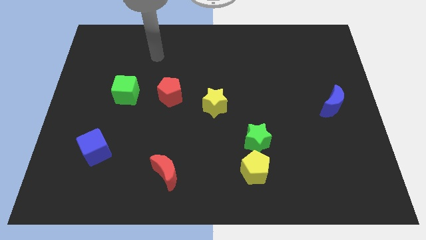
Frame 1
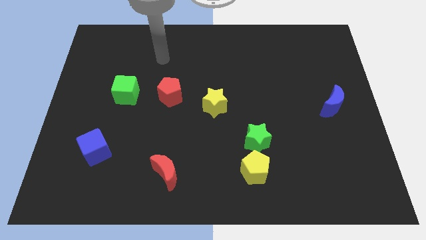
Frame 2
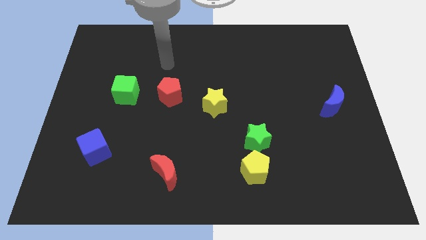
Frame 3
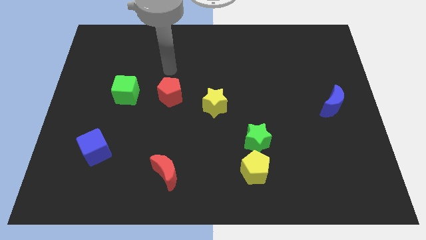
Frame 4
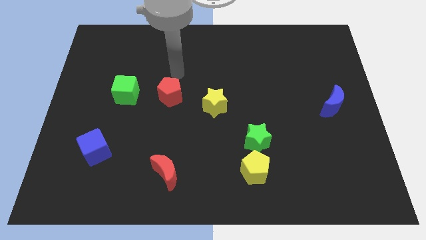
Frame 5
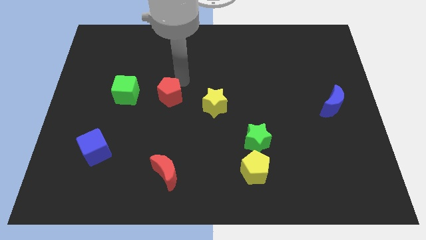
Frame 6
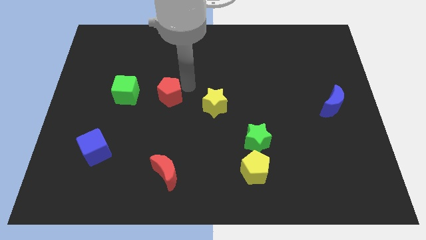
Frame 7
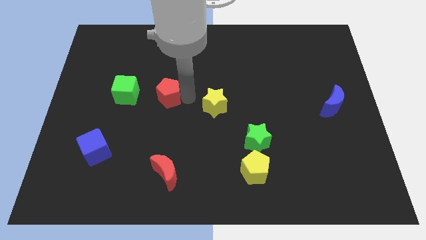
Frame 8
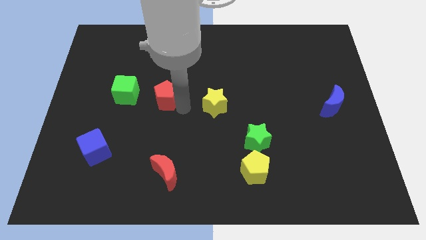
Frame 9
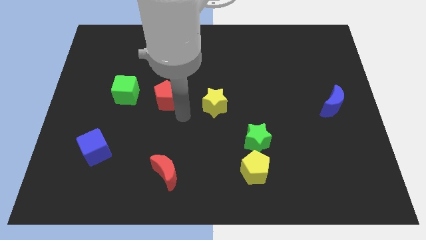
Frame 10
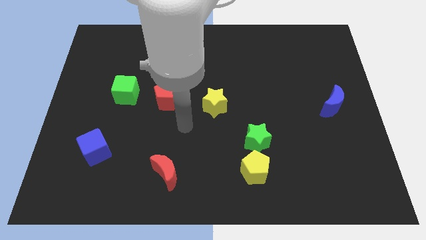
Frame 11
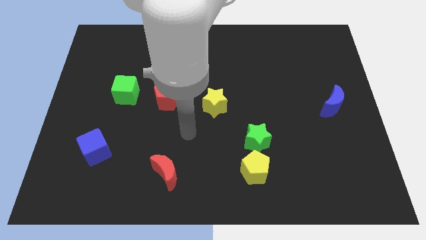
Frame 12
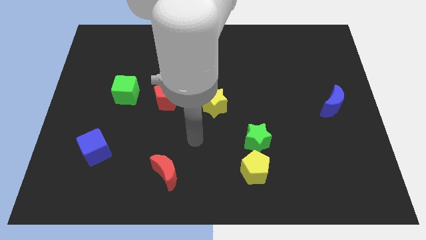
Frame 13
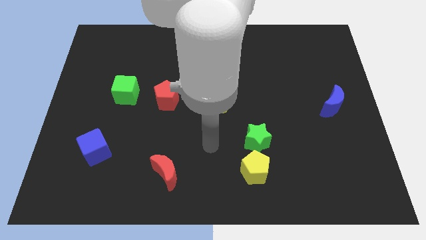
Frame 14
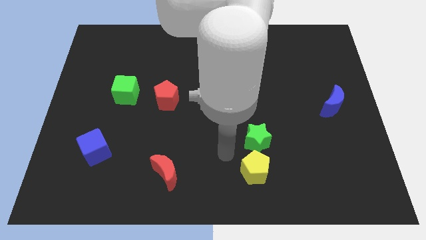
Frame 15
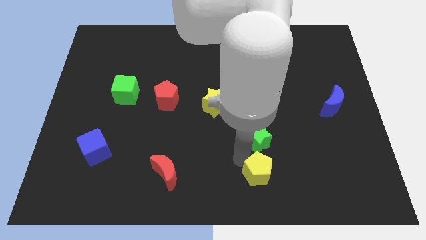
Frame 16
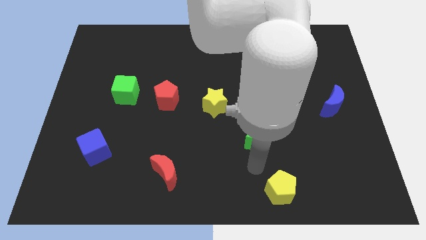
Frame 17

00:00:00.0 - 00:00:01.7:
separate the green star from the yellow pentagon

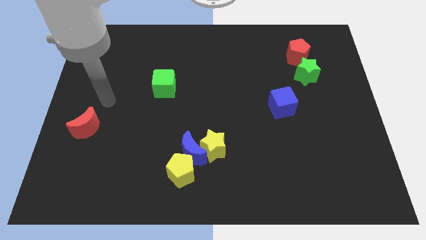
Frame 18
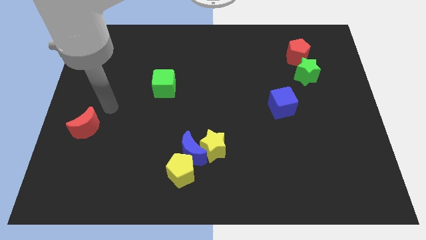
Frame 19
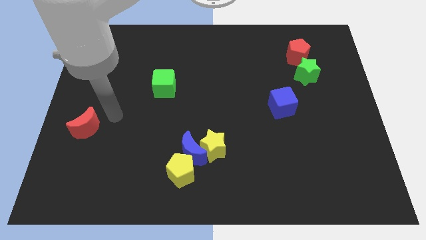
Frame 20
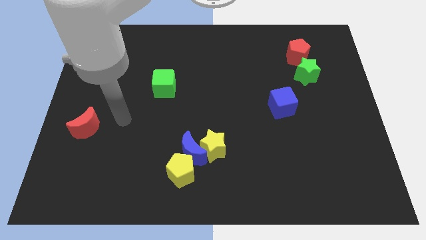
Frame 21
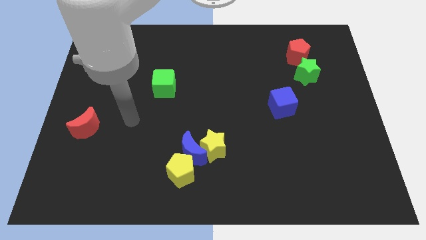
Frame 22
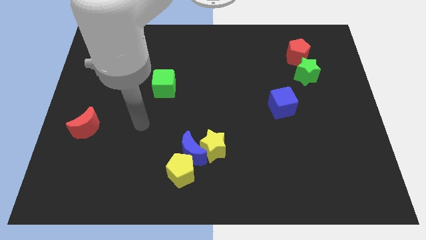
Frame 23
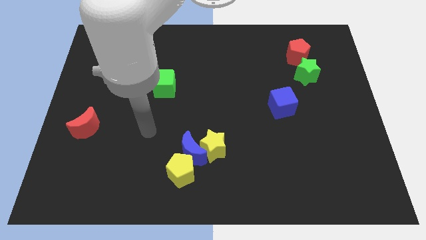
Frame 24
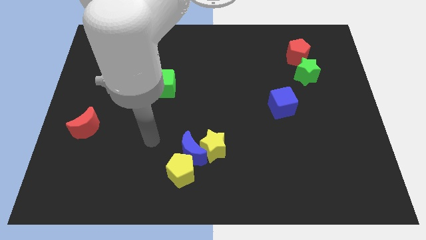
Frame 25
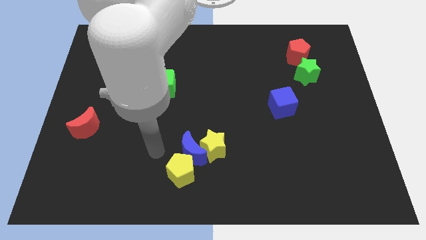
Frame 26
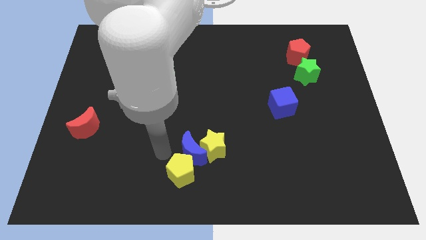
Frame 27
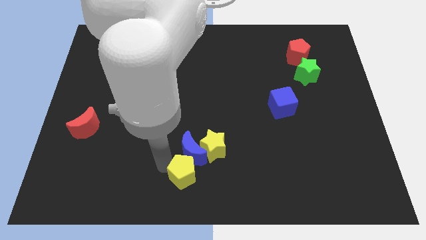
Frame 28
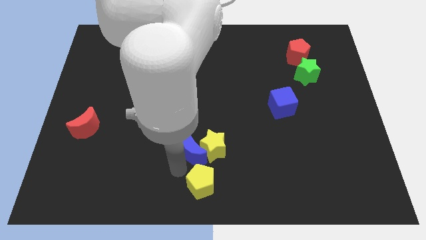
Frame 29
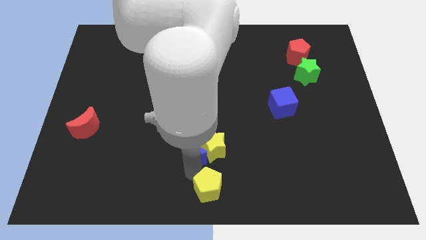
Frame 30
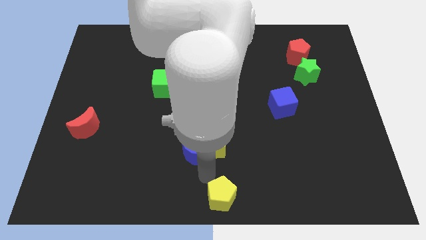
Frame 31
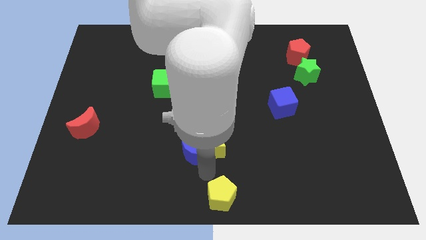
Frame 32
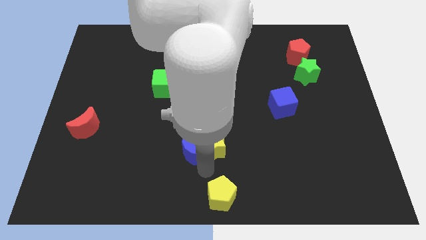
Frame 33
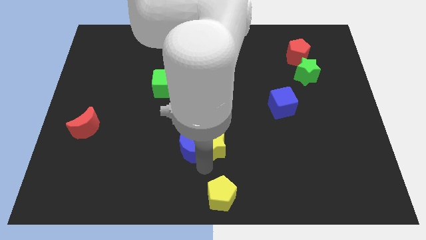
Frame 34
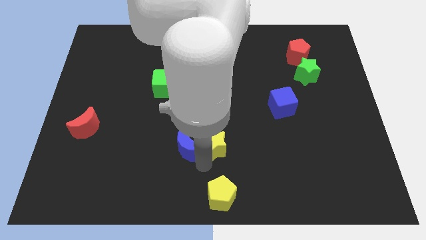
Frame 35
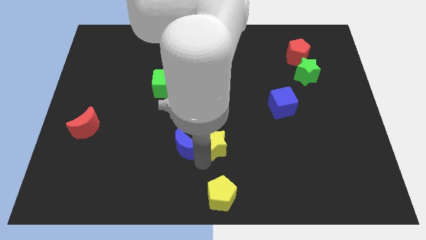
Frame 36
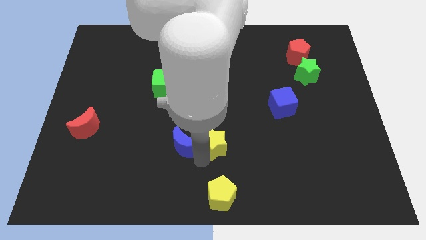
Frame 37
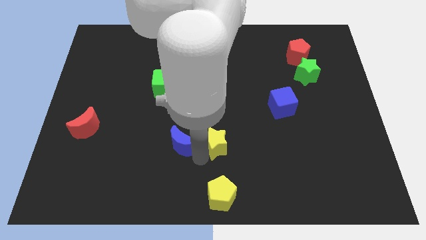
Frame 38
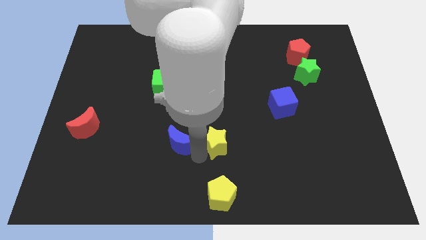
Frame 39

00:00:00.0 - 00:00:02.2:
separate the blue moon from the yellow star and yellow pentagon

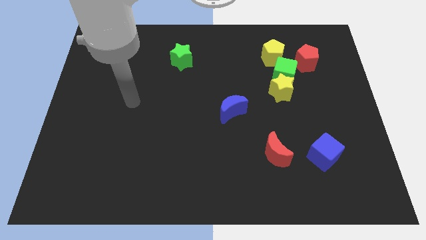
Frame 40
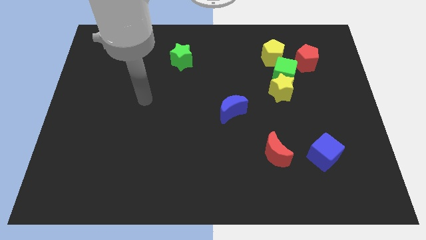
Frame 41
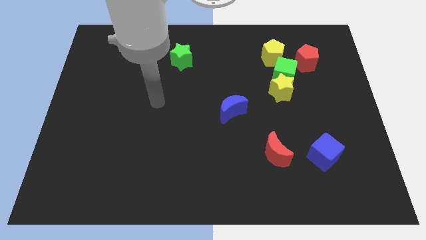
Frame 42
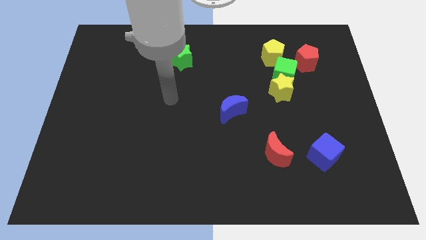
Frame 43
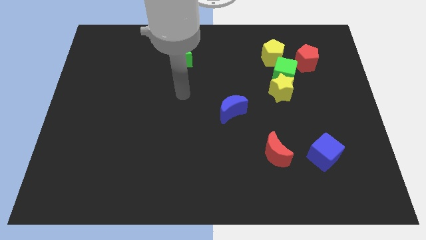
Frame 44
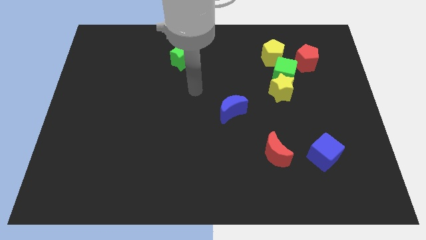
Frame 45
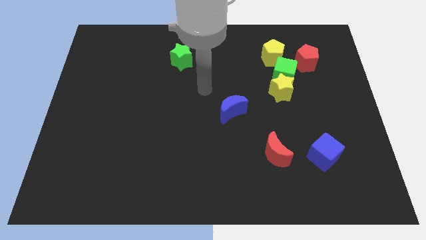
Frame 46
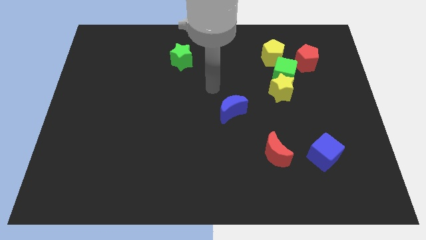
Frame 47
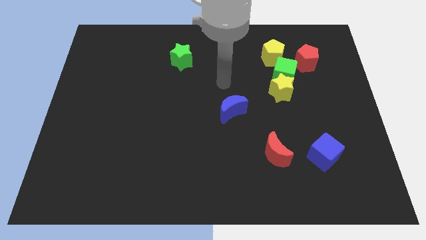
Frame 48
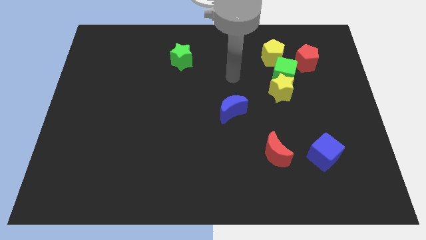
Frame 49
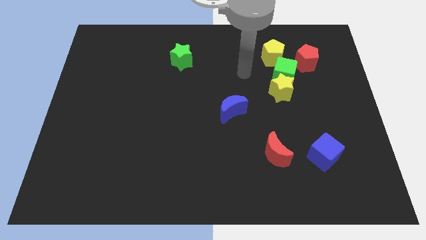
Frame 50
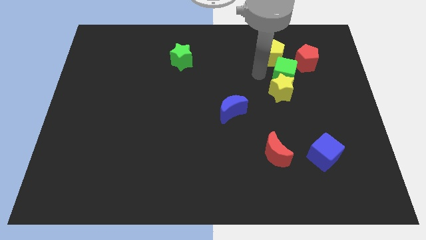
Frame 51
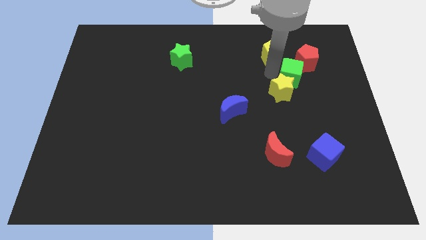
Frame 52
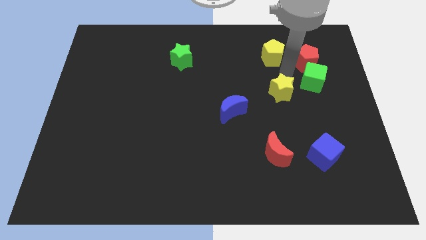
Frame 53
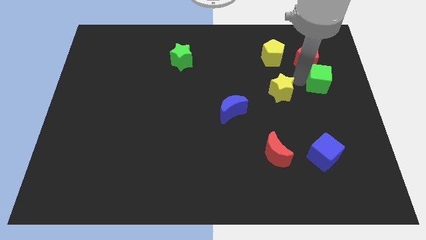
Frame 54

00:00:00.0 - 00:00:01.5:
move the yellow star away from the green cube

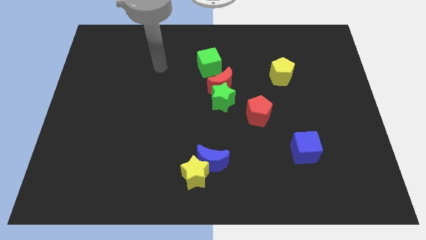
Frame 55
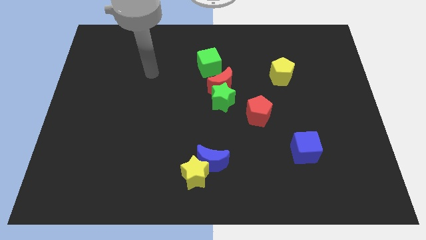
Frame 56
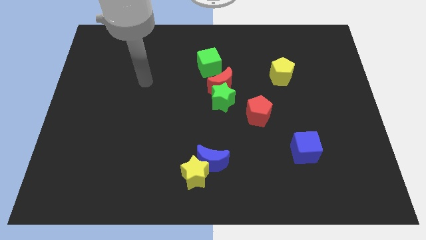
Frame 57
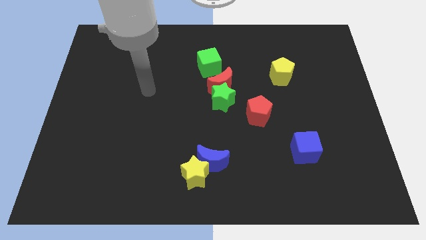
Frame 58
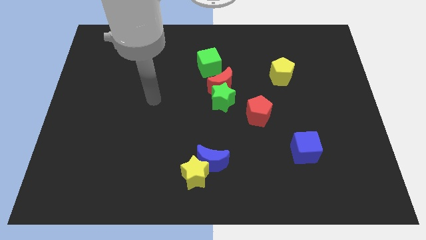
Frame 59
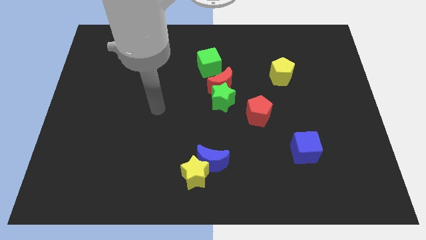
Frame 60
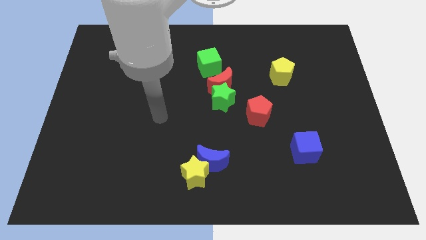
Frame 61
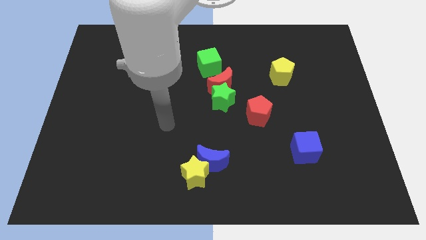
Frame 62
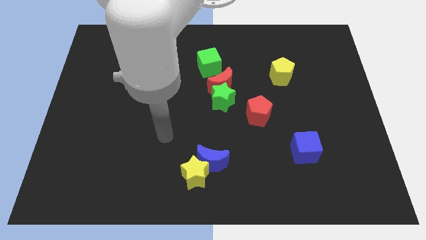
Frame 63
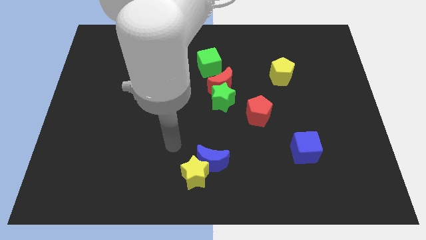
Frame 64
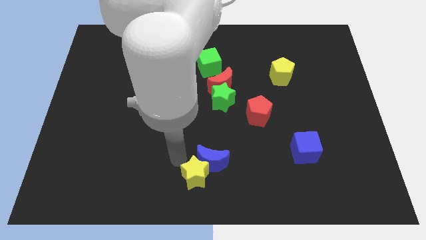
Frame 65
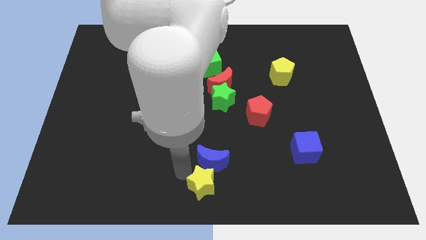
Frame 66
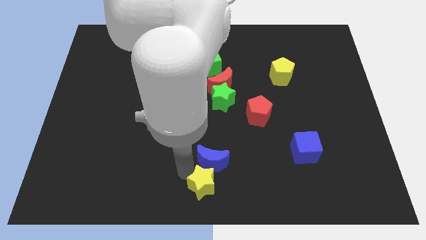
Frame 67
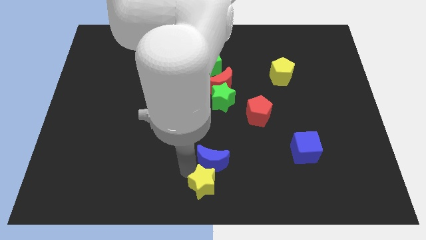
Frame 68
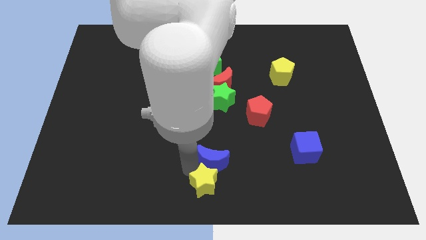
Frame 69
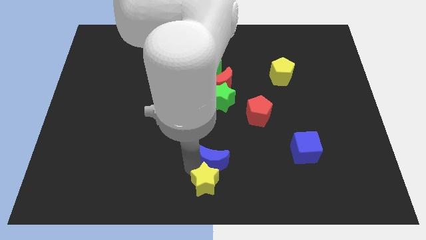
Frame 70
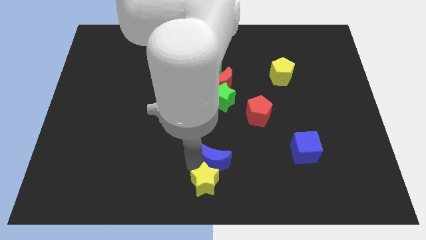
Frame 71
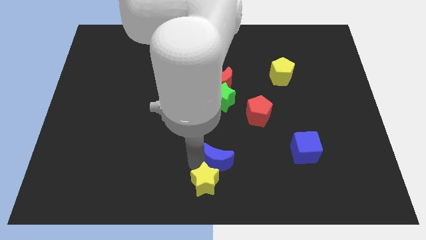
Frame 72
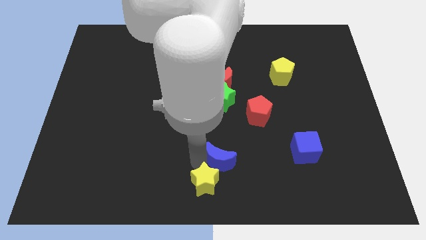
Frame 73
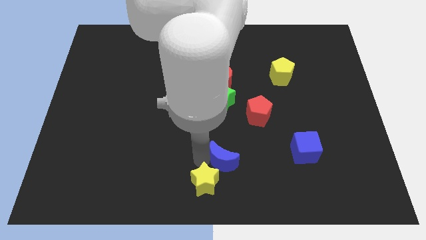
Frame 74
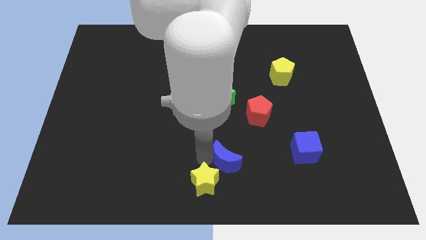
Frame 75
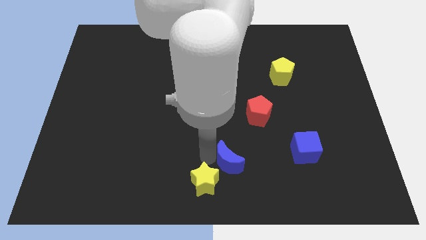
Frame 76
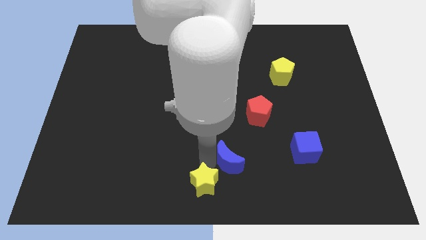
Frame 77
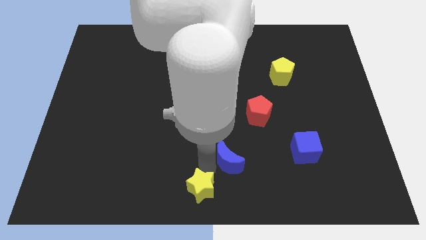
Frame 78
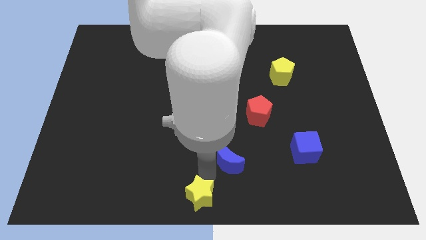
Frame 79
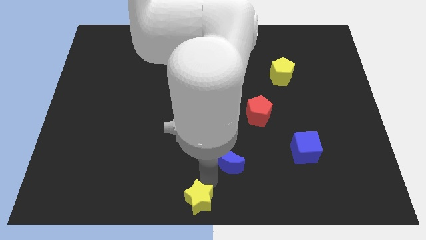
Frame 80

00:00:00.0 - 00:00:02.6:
separate the blue moon from the yellow star

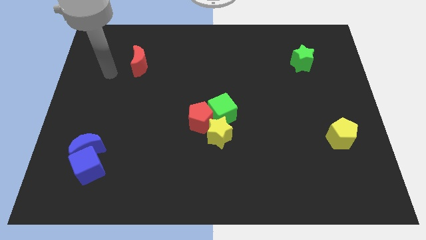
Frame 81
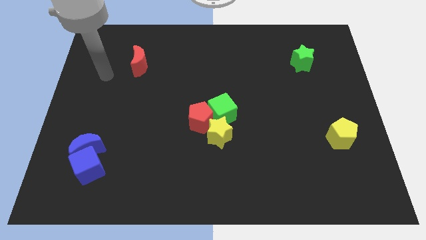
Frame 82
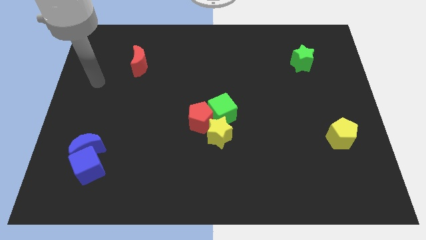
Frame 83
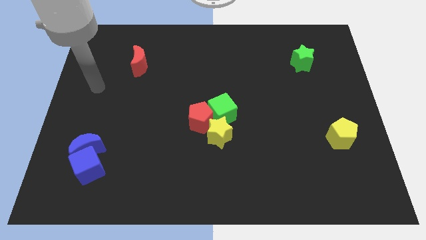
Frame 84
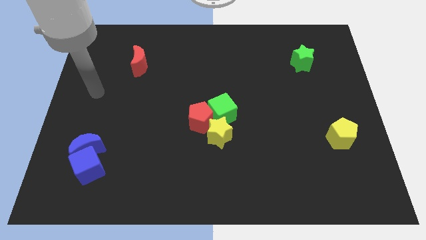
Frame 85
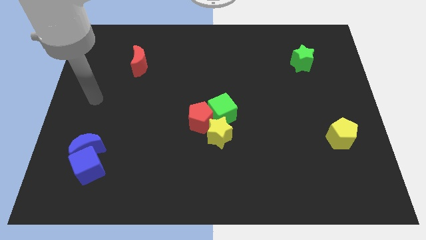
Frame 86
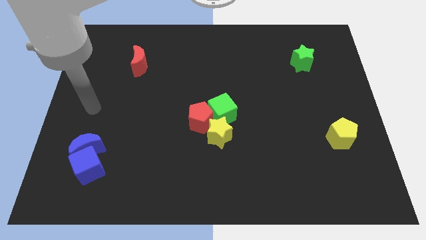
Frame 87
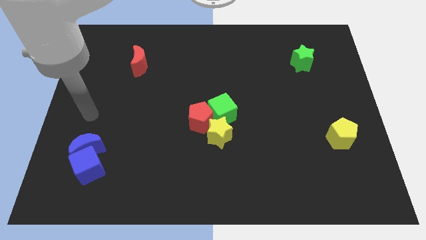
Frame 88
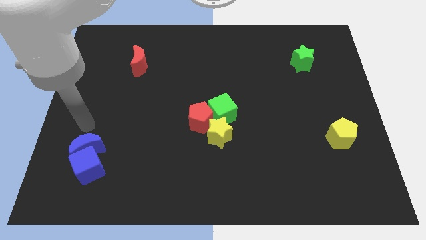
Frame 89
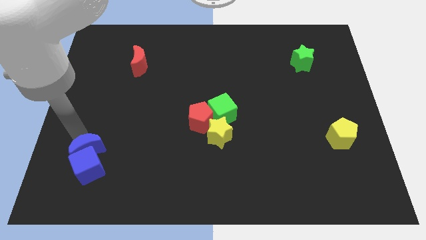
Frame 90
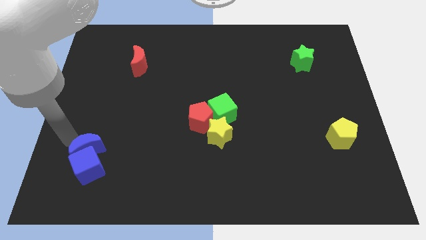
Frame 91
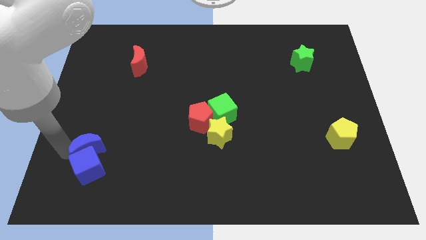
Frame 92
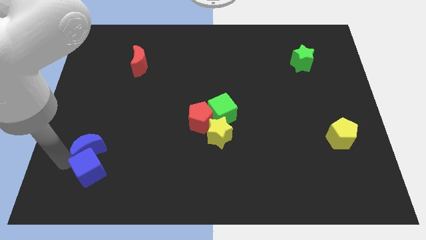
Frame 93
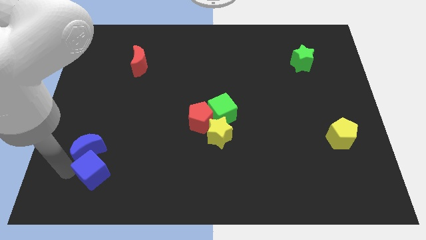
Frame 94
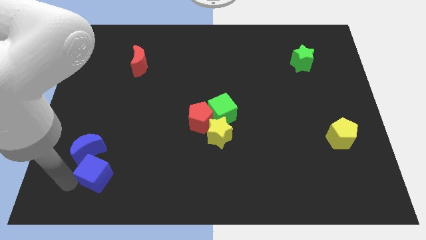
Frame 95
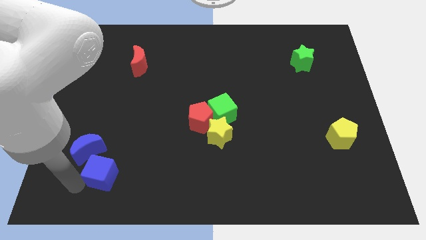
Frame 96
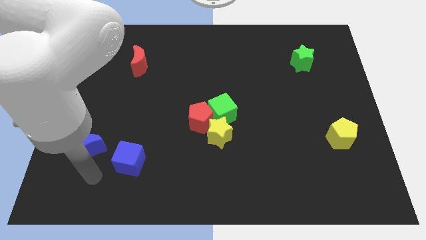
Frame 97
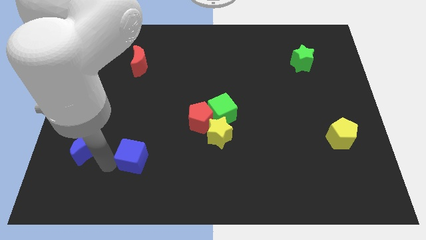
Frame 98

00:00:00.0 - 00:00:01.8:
pull the blue moon apart from the blue cube
